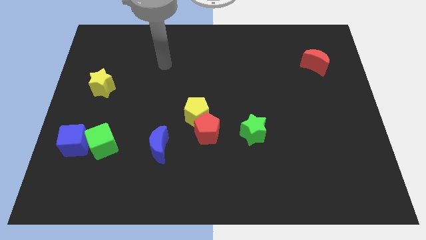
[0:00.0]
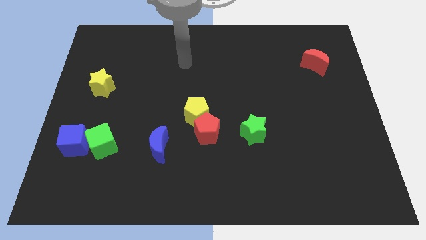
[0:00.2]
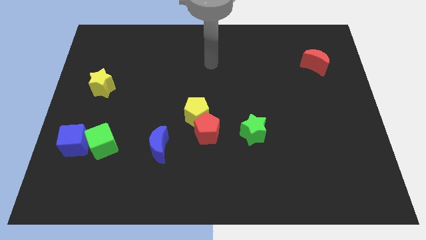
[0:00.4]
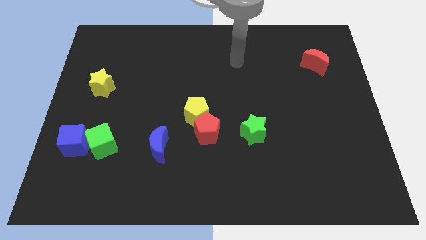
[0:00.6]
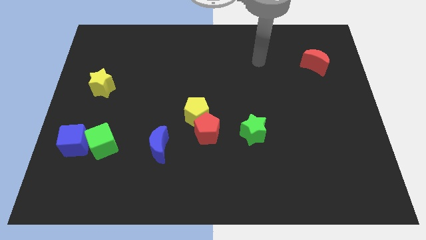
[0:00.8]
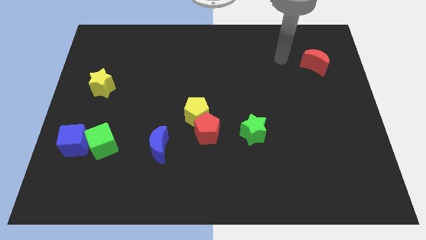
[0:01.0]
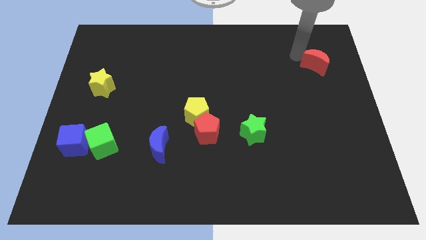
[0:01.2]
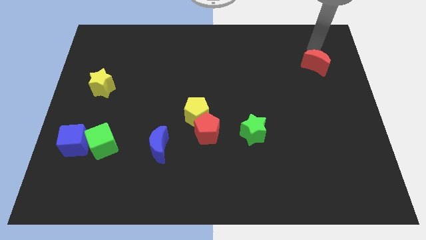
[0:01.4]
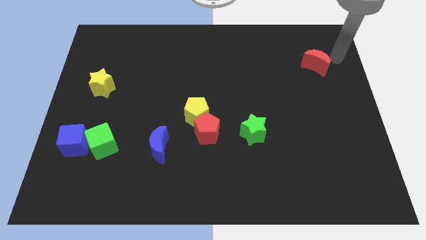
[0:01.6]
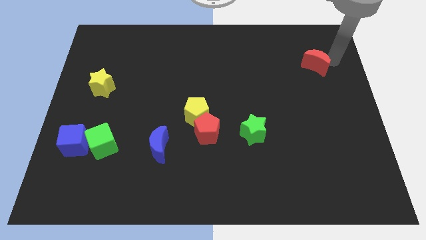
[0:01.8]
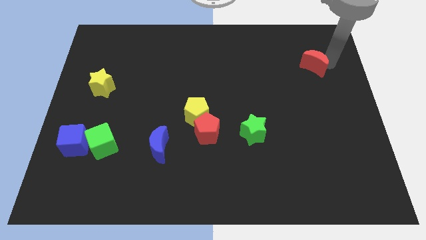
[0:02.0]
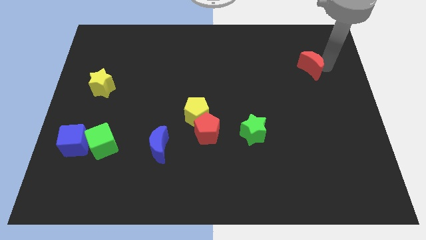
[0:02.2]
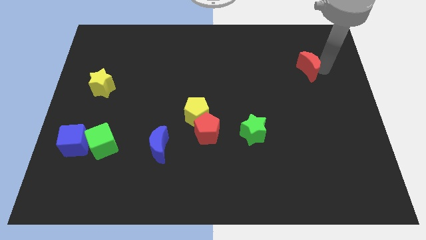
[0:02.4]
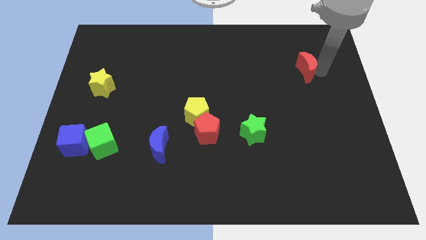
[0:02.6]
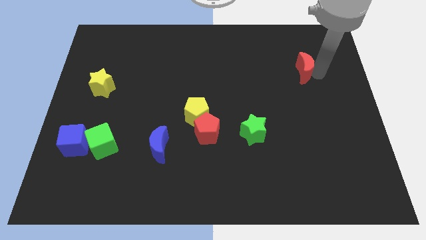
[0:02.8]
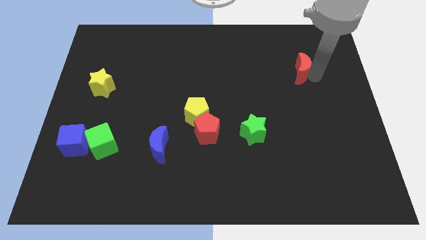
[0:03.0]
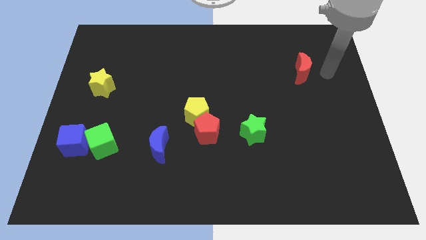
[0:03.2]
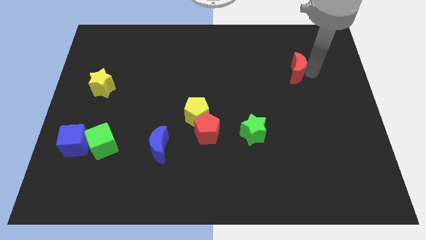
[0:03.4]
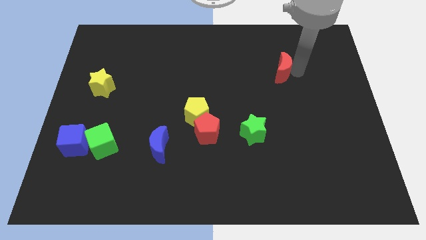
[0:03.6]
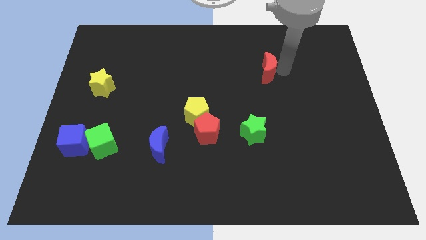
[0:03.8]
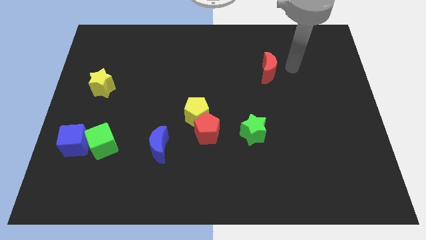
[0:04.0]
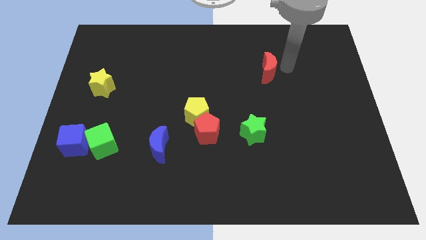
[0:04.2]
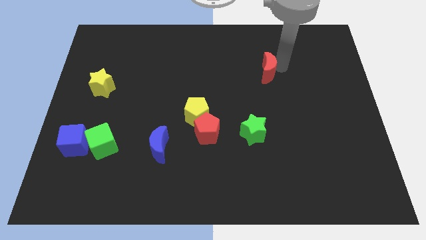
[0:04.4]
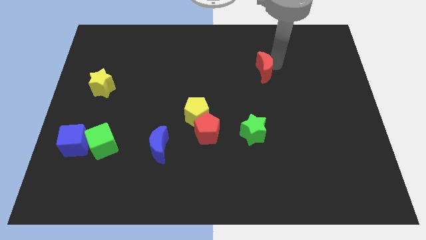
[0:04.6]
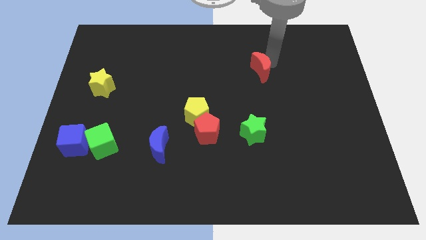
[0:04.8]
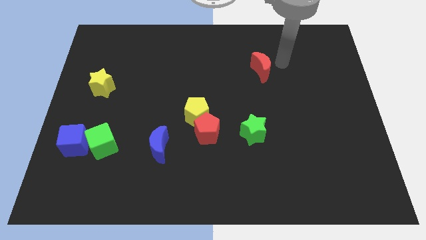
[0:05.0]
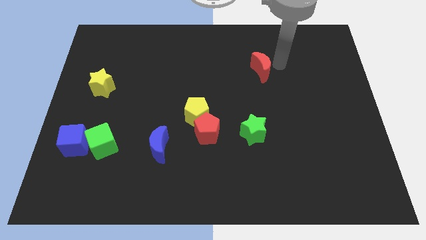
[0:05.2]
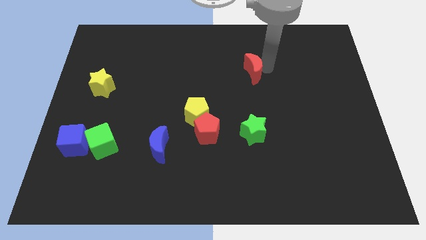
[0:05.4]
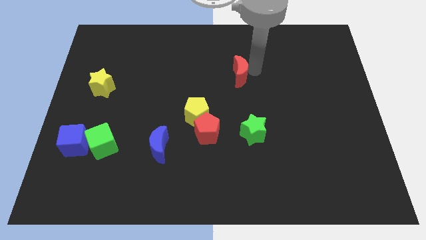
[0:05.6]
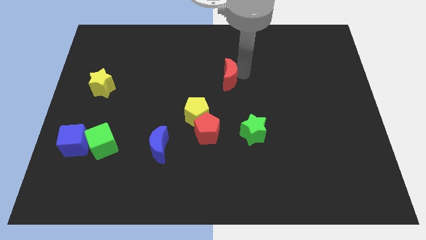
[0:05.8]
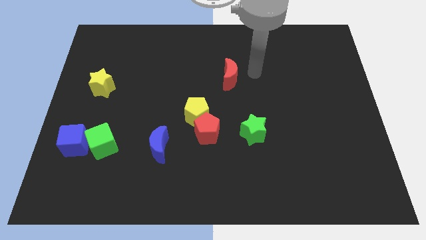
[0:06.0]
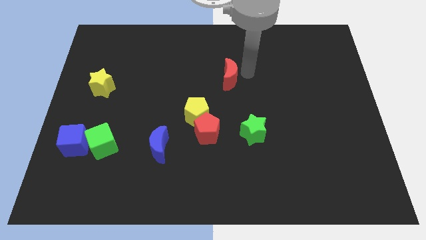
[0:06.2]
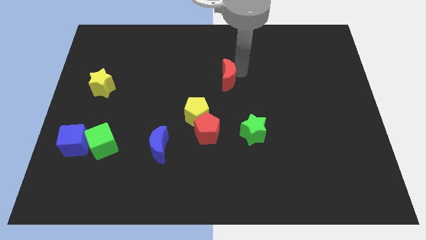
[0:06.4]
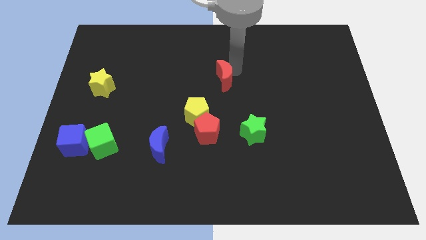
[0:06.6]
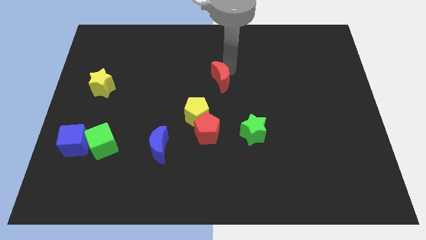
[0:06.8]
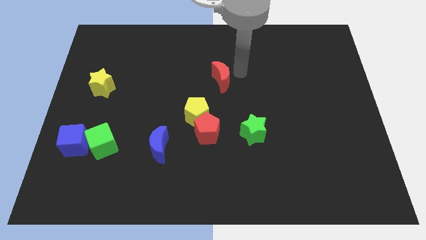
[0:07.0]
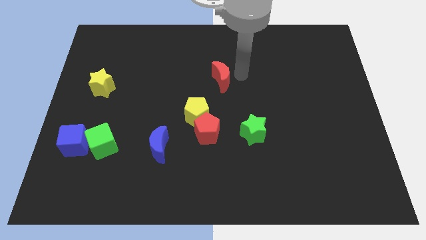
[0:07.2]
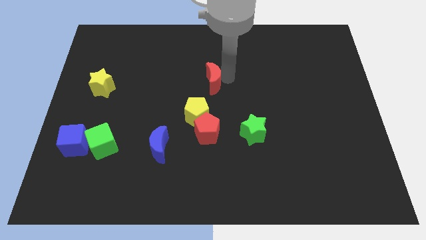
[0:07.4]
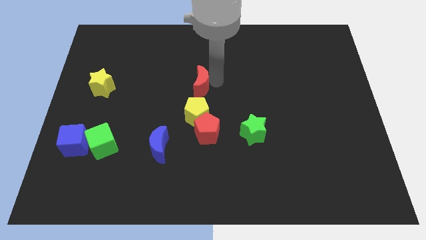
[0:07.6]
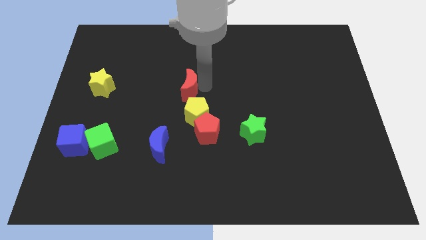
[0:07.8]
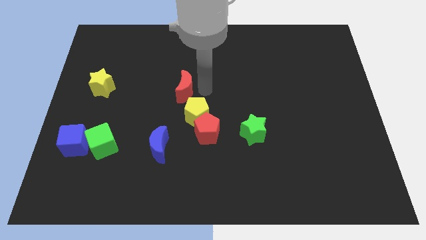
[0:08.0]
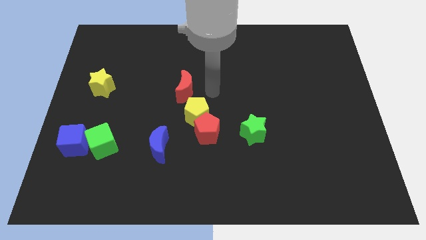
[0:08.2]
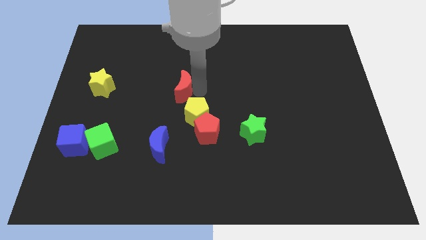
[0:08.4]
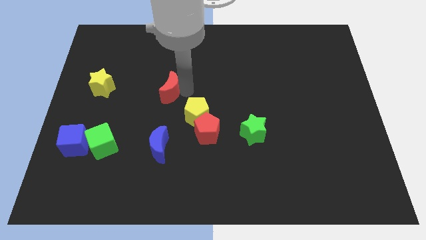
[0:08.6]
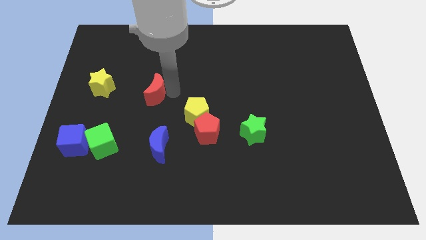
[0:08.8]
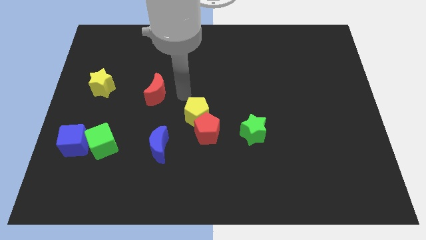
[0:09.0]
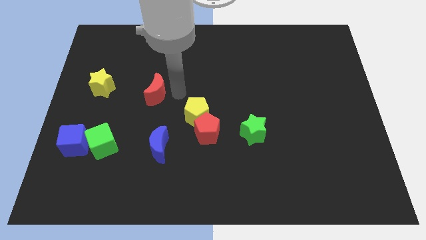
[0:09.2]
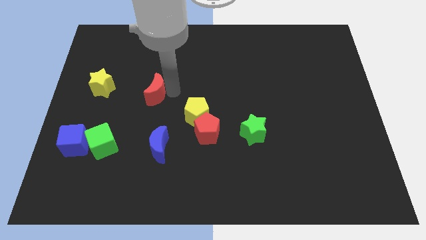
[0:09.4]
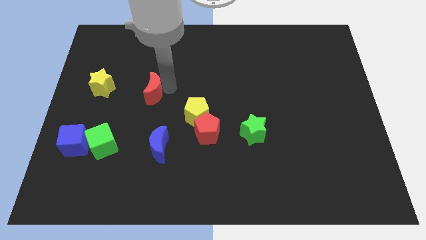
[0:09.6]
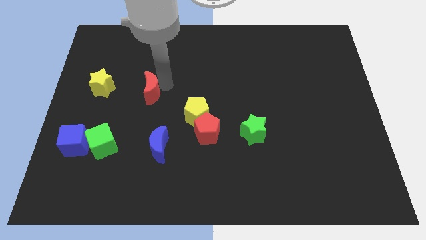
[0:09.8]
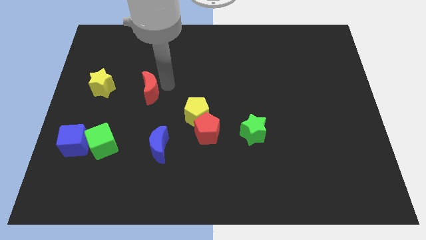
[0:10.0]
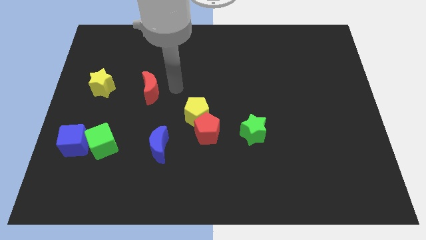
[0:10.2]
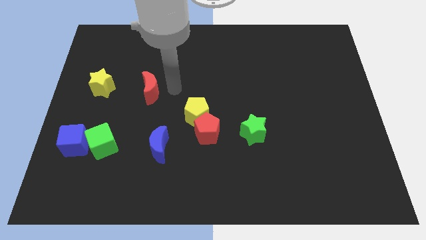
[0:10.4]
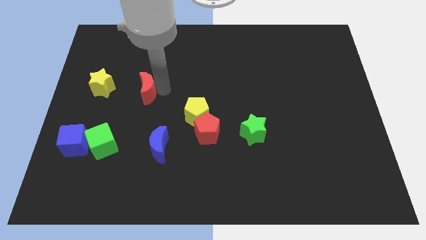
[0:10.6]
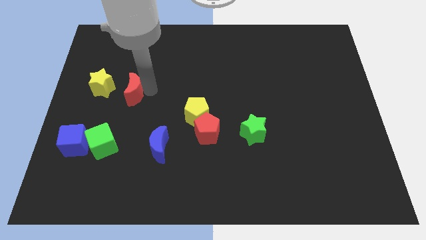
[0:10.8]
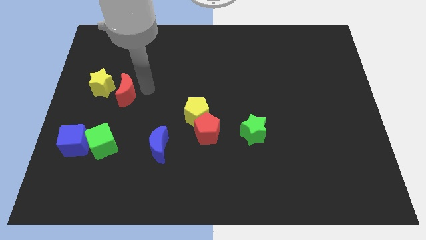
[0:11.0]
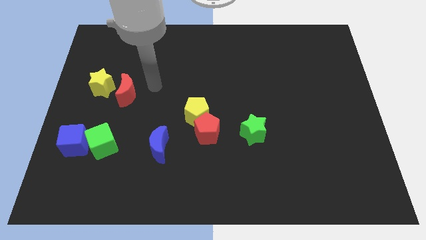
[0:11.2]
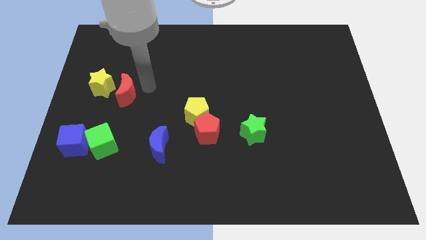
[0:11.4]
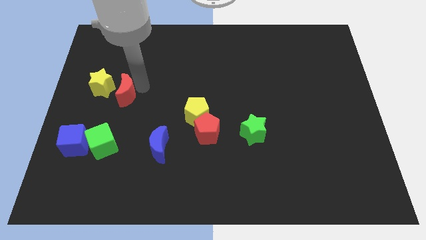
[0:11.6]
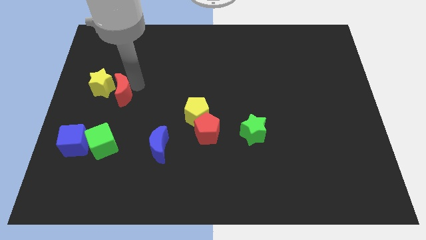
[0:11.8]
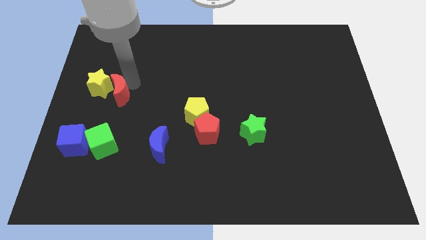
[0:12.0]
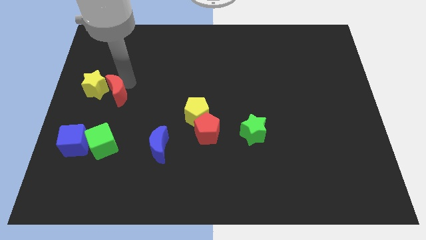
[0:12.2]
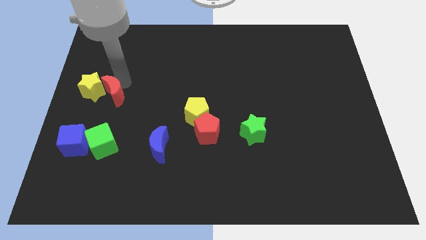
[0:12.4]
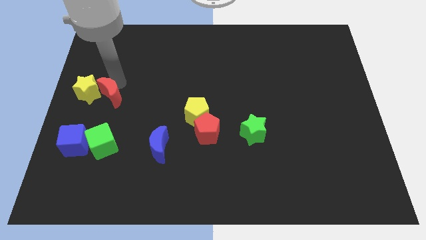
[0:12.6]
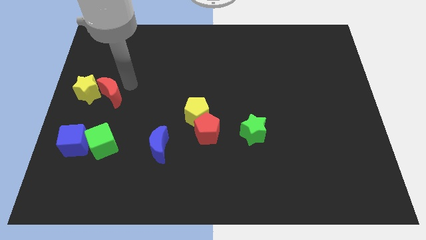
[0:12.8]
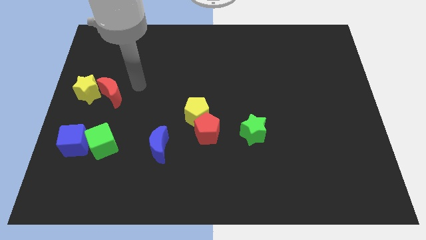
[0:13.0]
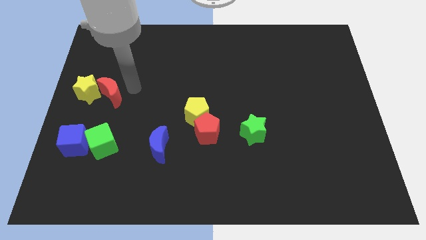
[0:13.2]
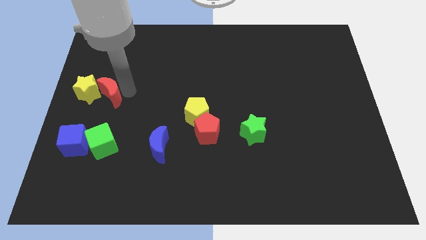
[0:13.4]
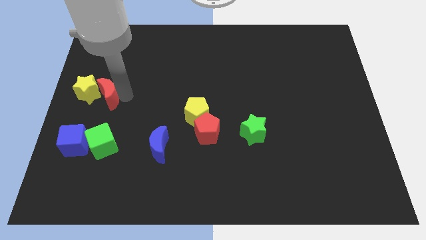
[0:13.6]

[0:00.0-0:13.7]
push the red moon to the left side
